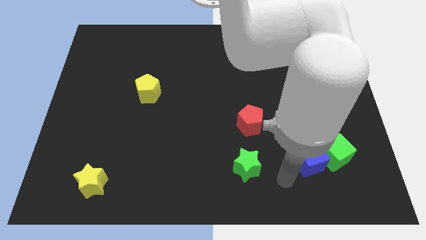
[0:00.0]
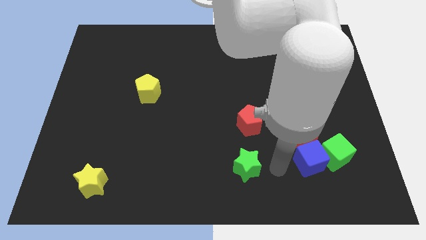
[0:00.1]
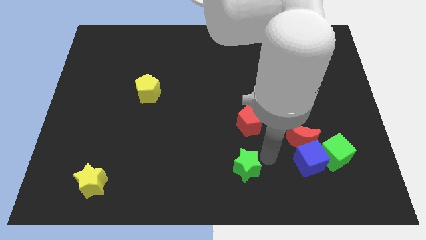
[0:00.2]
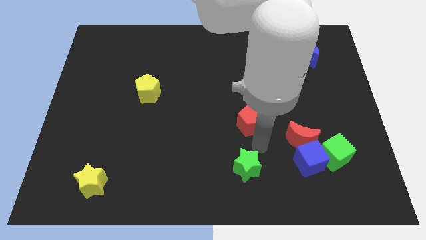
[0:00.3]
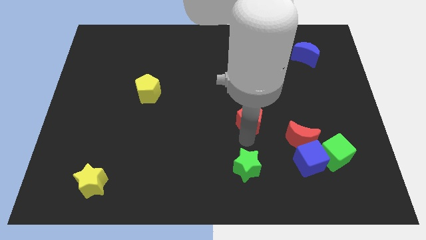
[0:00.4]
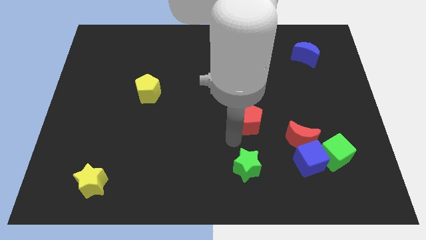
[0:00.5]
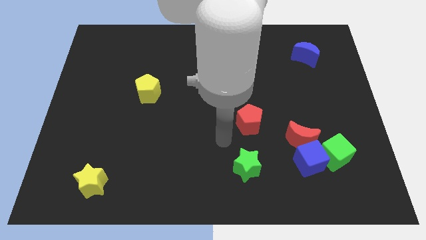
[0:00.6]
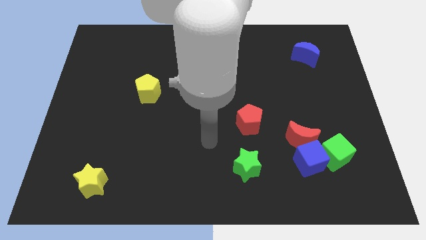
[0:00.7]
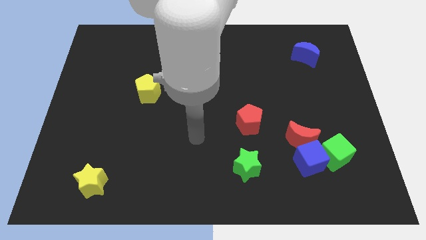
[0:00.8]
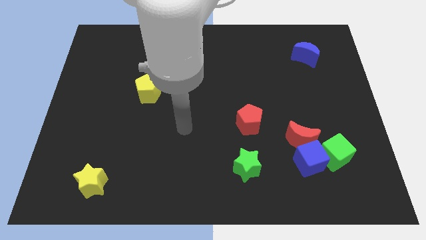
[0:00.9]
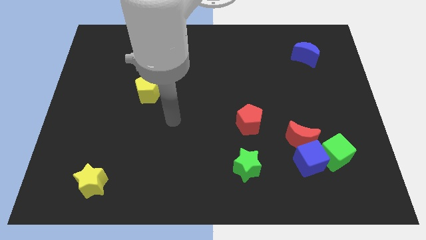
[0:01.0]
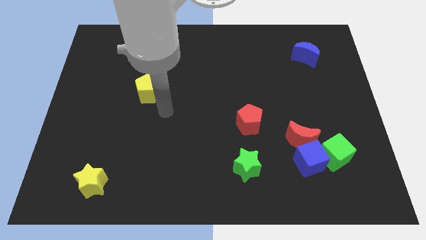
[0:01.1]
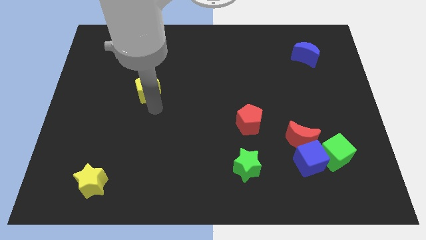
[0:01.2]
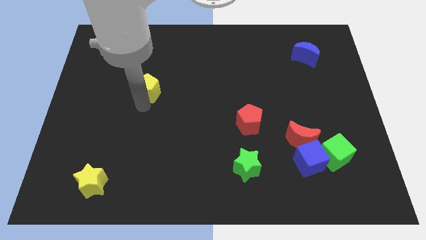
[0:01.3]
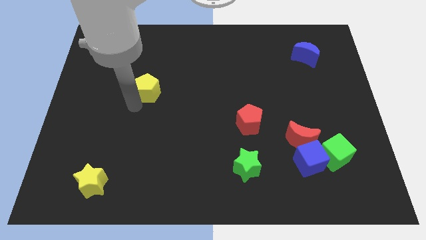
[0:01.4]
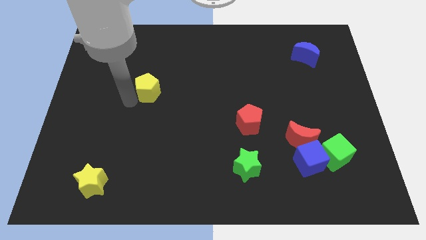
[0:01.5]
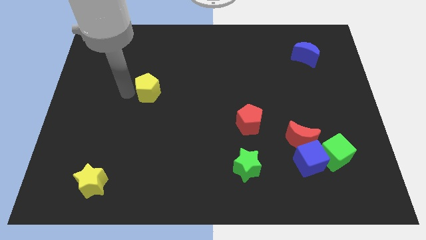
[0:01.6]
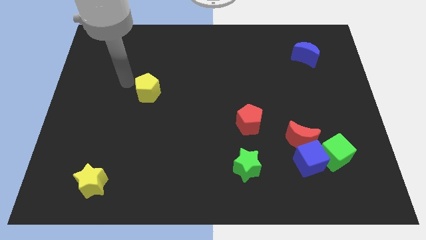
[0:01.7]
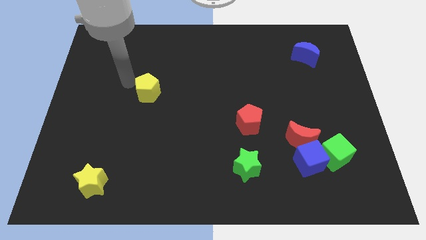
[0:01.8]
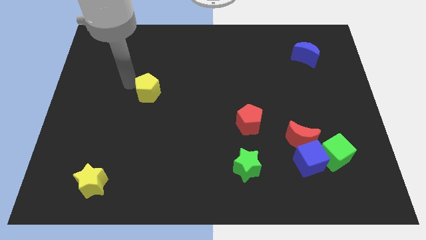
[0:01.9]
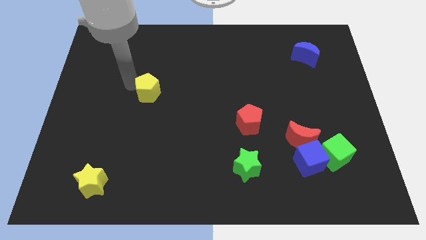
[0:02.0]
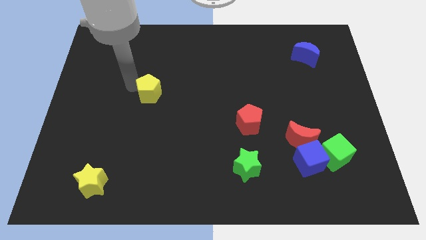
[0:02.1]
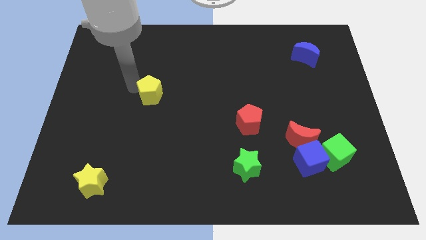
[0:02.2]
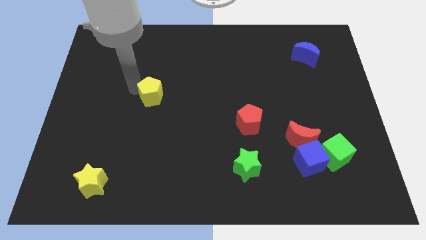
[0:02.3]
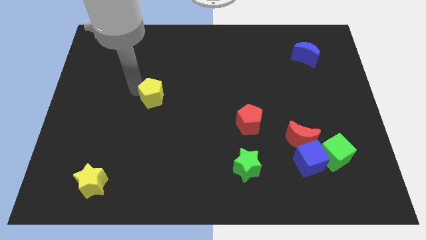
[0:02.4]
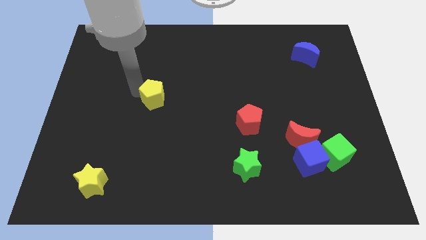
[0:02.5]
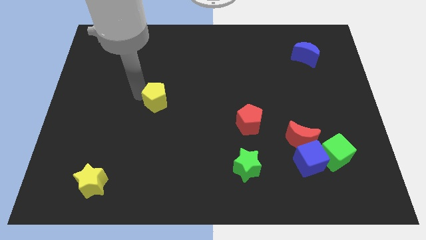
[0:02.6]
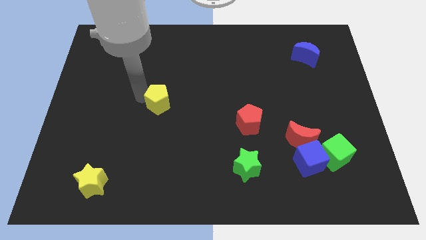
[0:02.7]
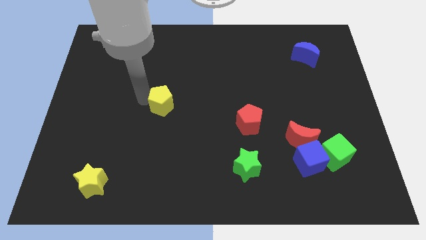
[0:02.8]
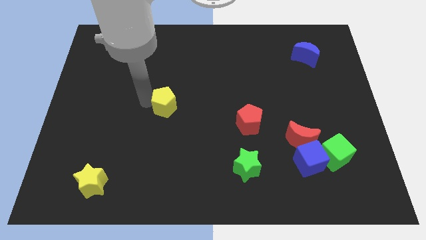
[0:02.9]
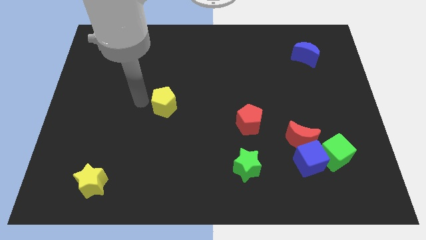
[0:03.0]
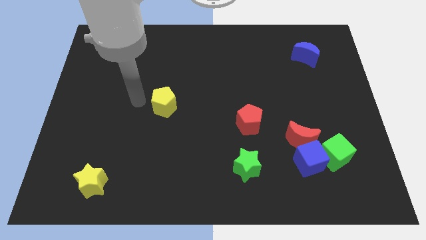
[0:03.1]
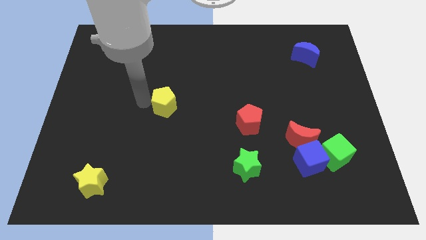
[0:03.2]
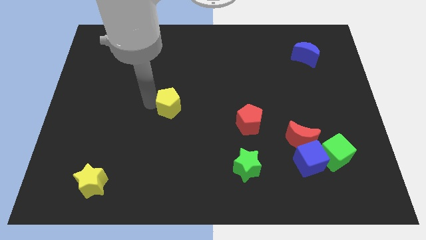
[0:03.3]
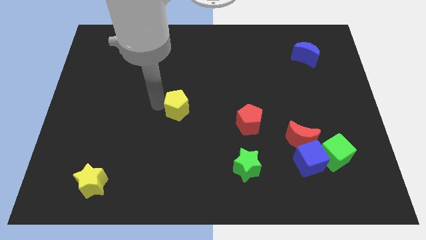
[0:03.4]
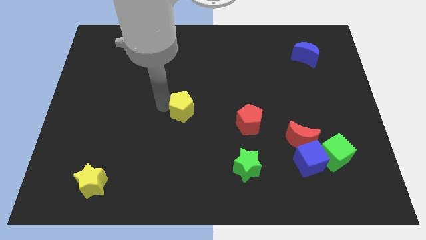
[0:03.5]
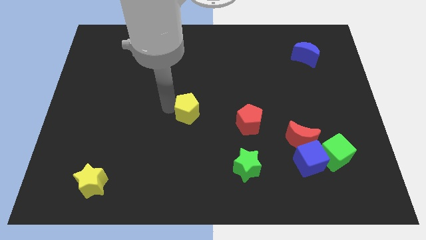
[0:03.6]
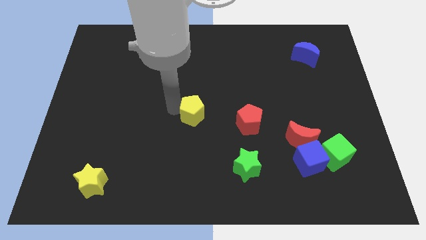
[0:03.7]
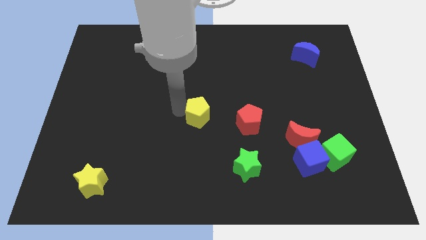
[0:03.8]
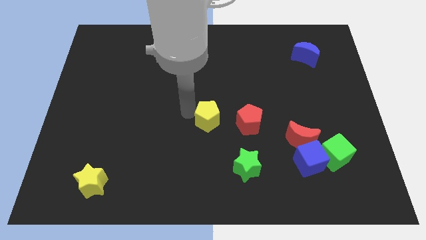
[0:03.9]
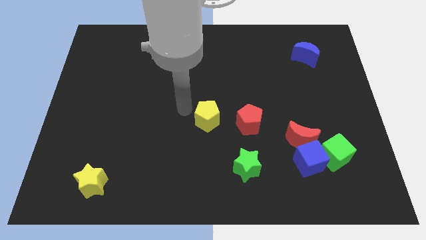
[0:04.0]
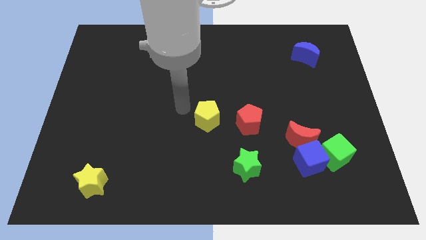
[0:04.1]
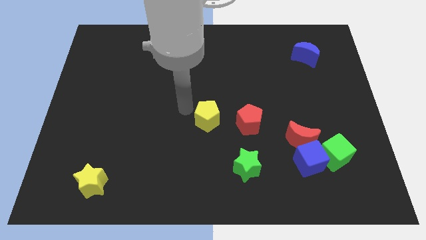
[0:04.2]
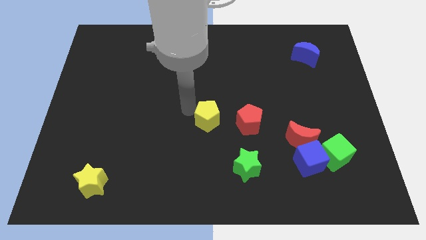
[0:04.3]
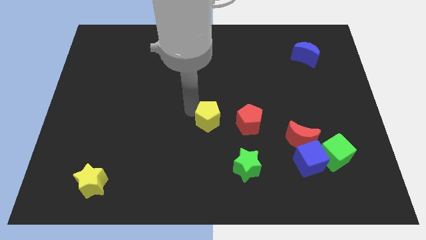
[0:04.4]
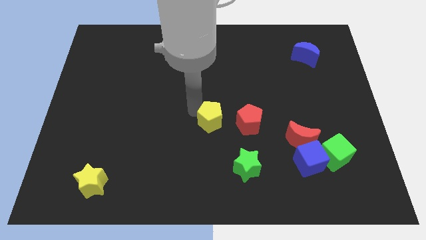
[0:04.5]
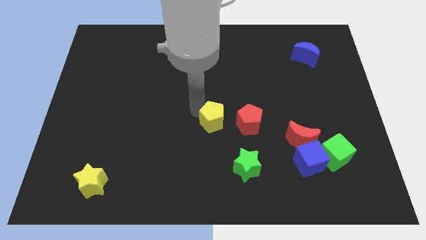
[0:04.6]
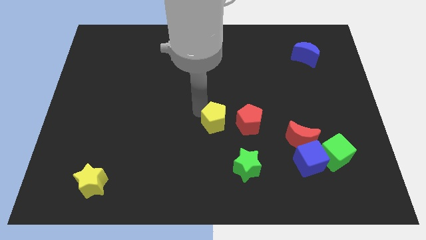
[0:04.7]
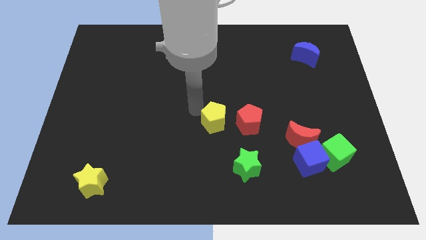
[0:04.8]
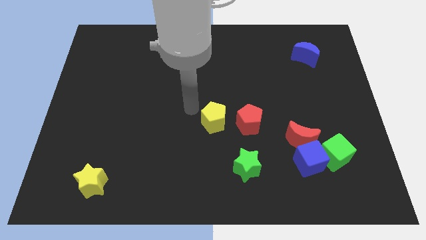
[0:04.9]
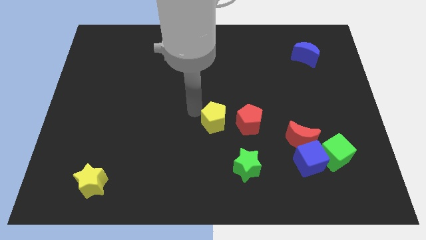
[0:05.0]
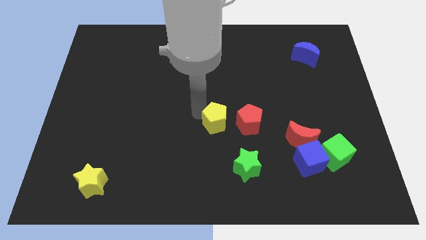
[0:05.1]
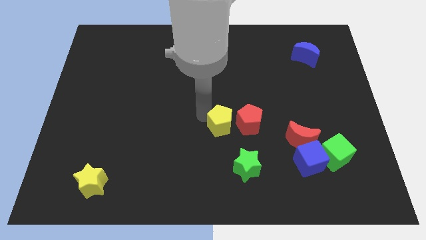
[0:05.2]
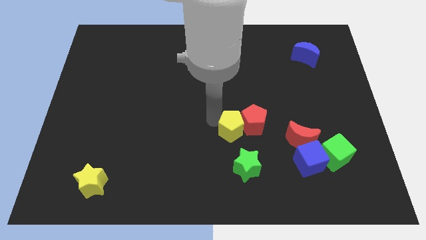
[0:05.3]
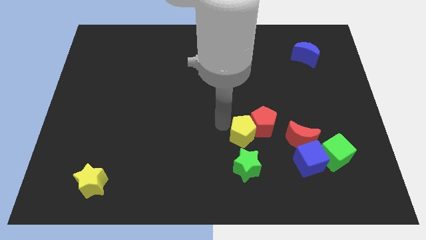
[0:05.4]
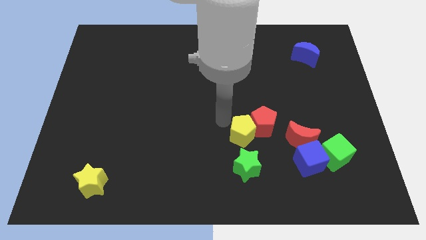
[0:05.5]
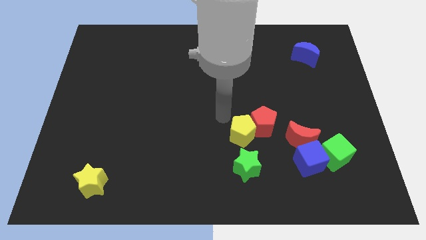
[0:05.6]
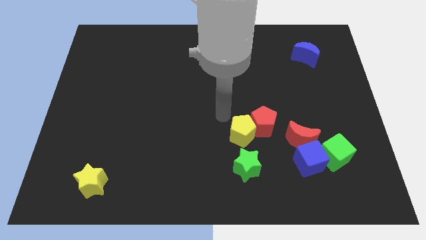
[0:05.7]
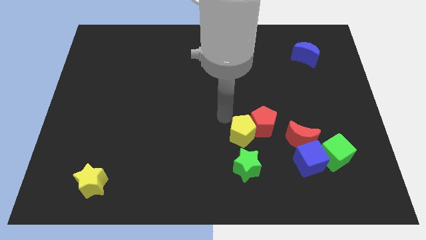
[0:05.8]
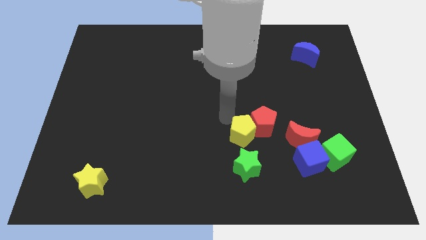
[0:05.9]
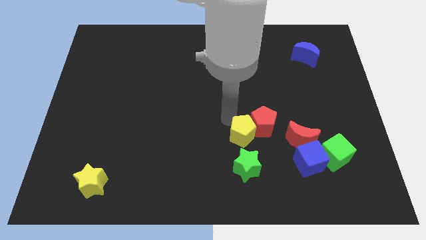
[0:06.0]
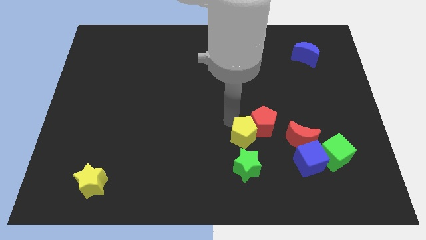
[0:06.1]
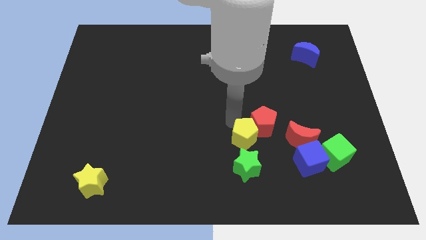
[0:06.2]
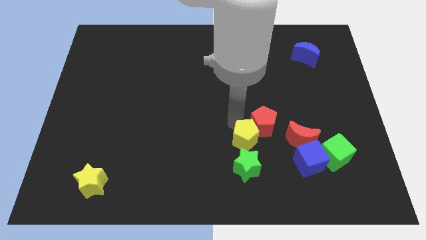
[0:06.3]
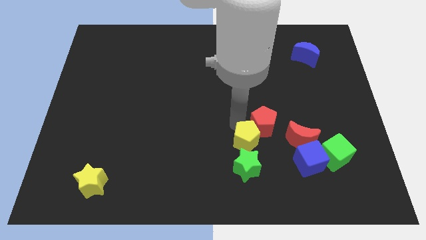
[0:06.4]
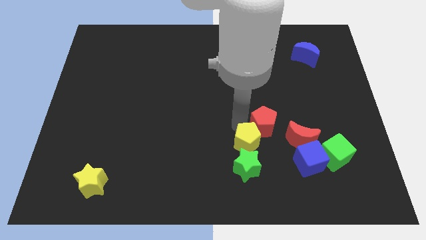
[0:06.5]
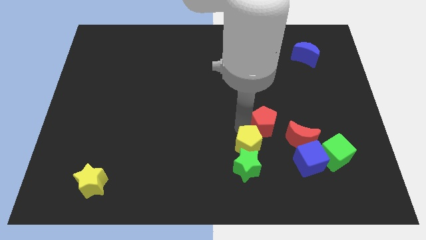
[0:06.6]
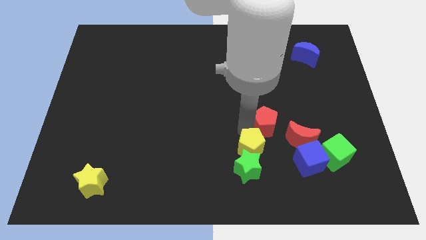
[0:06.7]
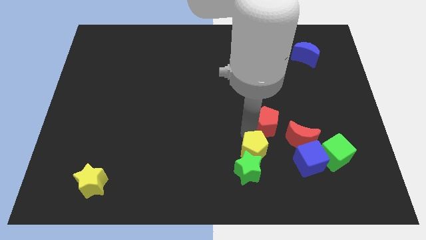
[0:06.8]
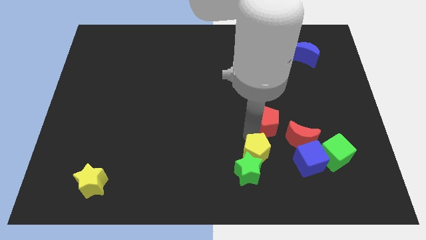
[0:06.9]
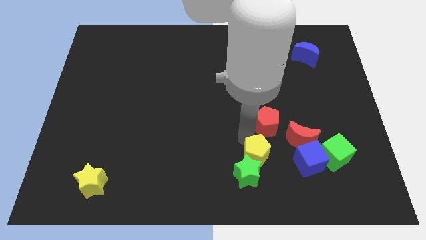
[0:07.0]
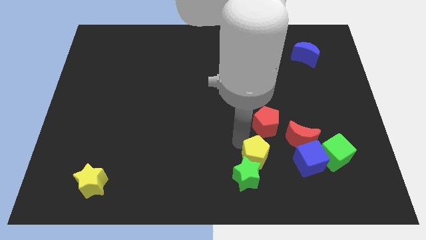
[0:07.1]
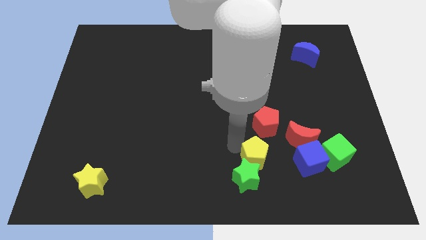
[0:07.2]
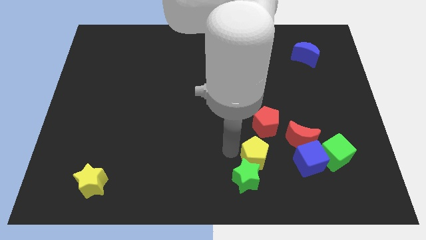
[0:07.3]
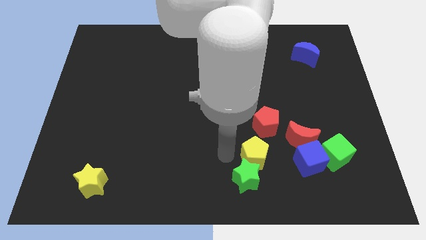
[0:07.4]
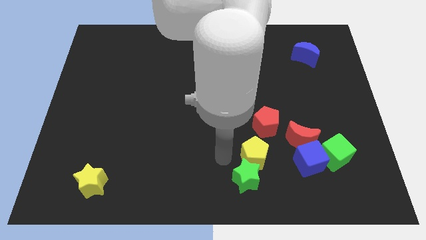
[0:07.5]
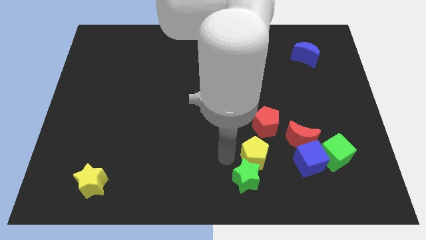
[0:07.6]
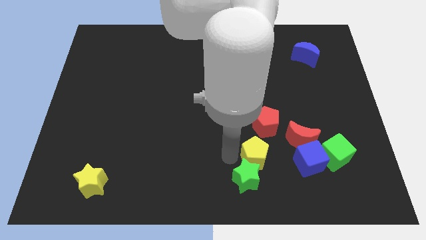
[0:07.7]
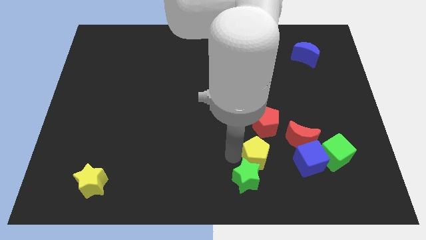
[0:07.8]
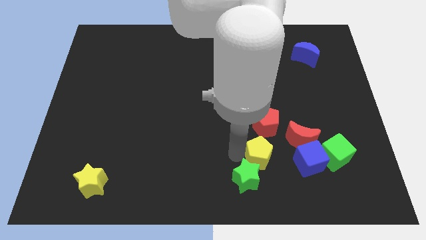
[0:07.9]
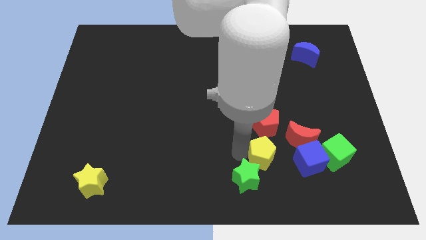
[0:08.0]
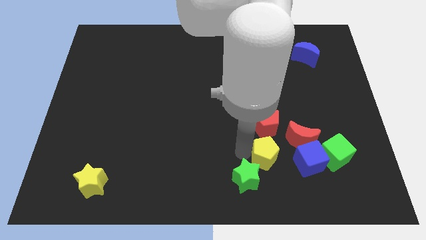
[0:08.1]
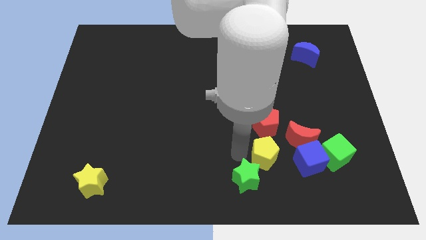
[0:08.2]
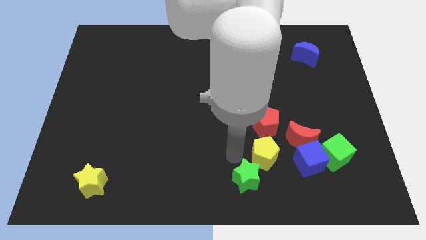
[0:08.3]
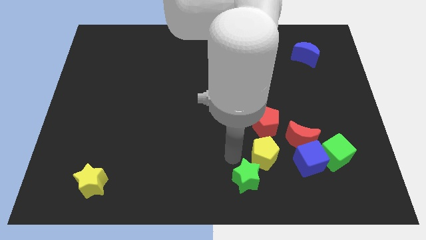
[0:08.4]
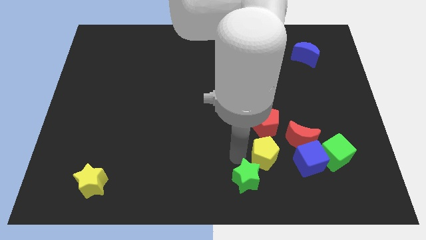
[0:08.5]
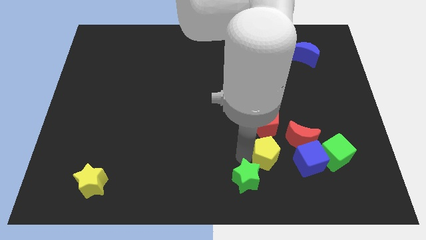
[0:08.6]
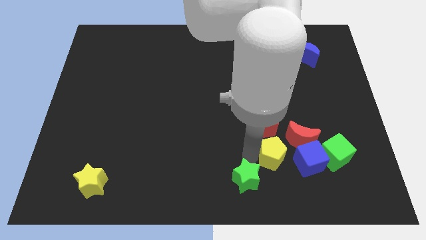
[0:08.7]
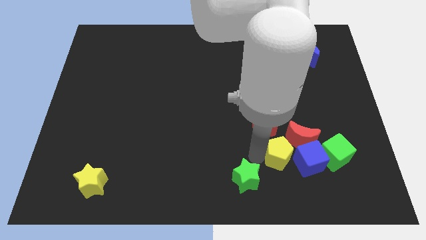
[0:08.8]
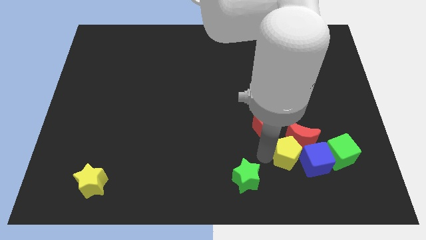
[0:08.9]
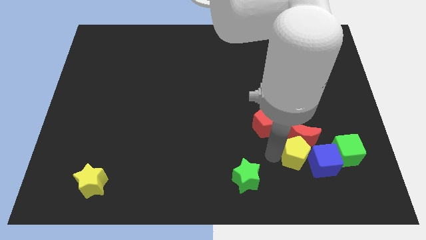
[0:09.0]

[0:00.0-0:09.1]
move the yellow pentagon close to the blue cube
